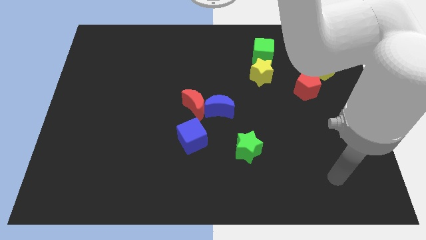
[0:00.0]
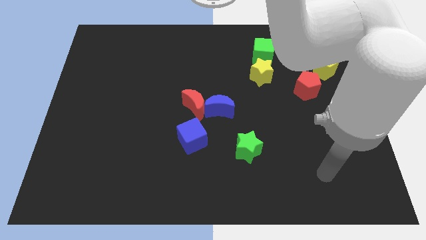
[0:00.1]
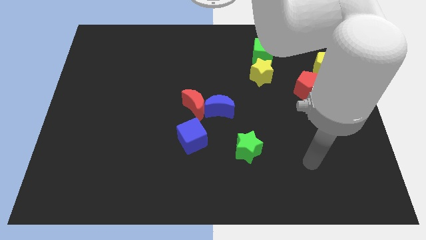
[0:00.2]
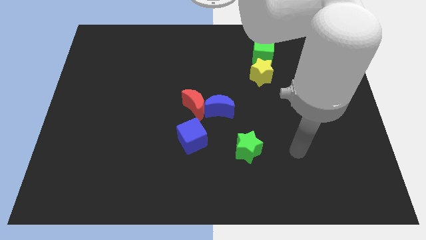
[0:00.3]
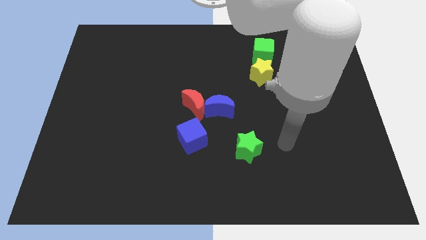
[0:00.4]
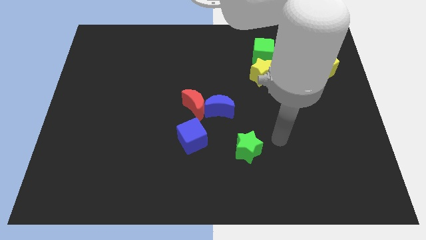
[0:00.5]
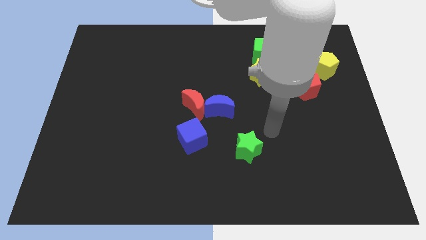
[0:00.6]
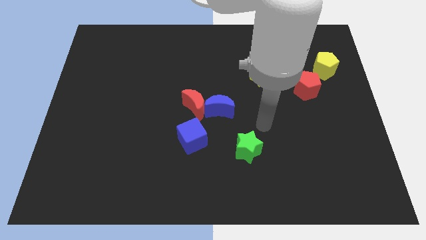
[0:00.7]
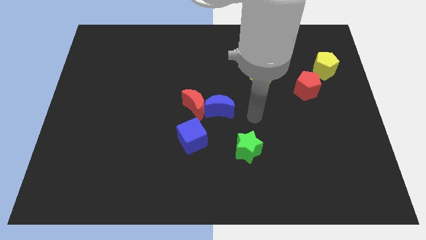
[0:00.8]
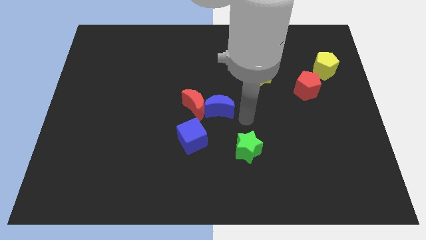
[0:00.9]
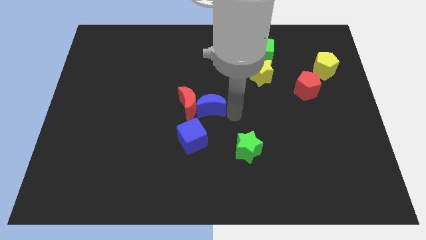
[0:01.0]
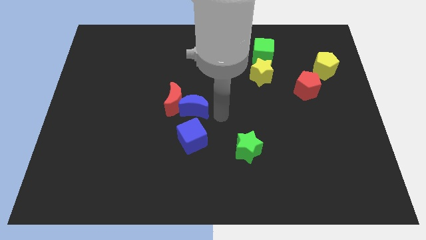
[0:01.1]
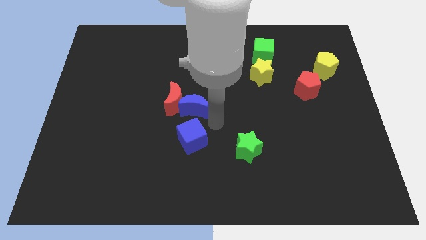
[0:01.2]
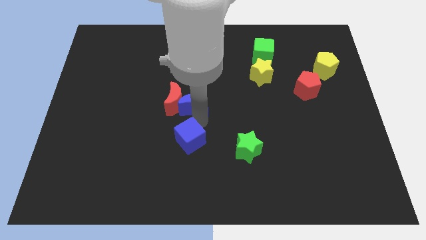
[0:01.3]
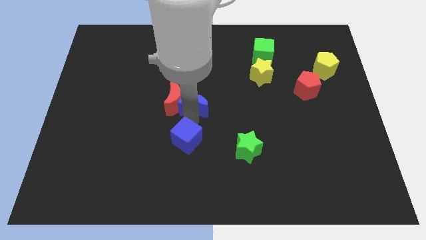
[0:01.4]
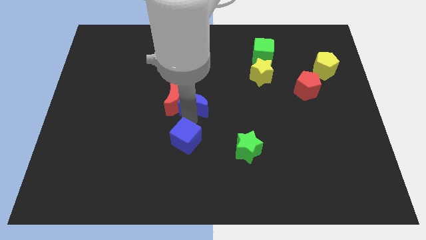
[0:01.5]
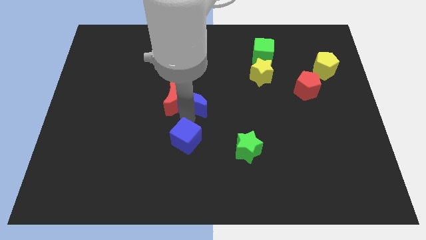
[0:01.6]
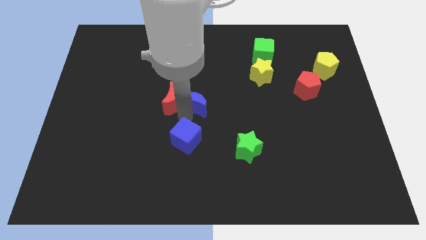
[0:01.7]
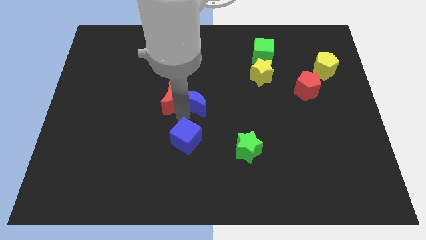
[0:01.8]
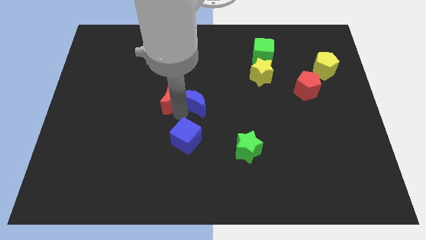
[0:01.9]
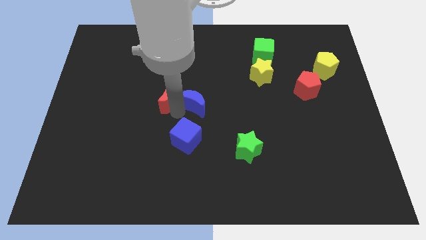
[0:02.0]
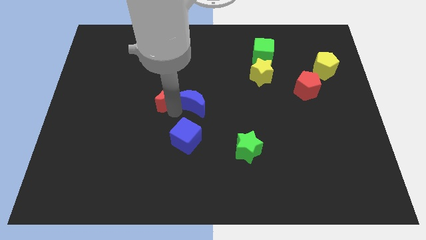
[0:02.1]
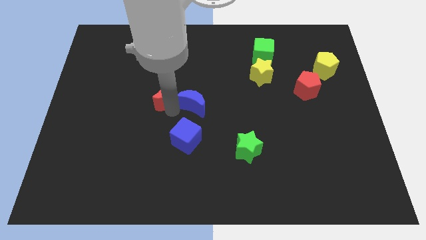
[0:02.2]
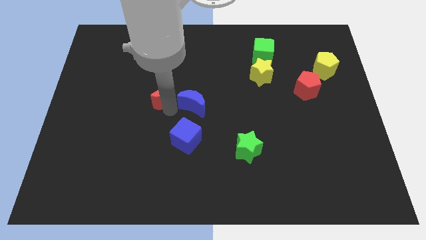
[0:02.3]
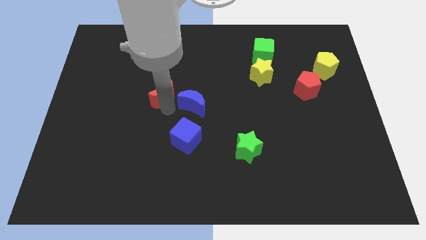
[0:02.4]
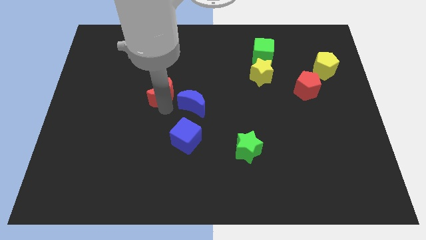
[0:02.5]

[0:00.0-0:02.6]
move the red moon away from the blue moon and blue cube

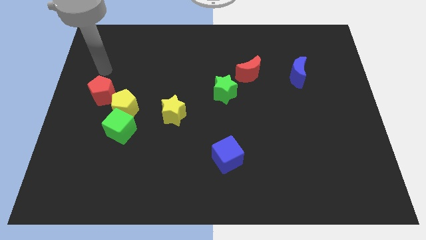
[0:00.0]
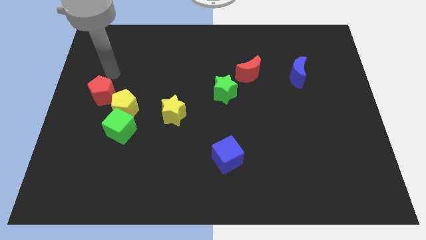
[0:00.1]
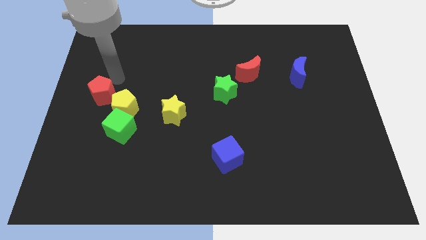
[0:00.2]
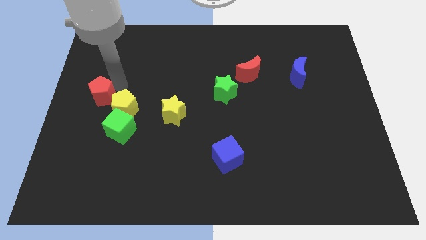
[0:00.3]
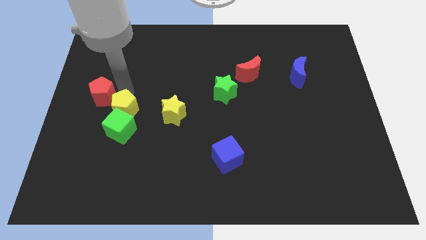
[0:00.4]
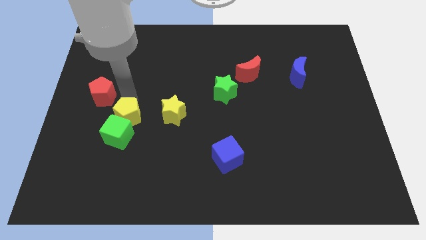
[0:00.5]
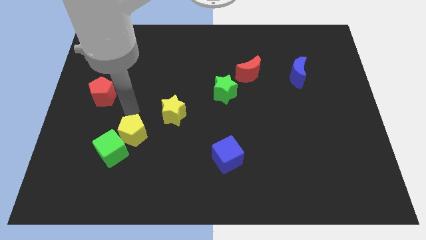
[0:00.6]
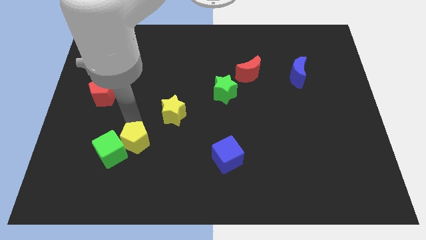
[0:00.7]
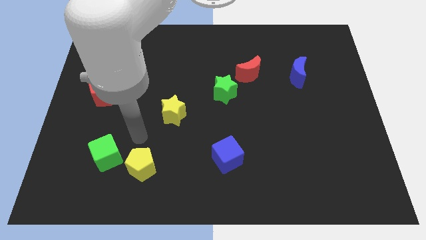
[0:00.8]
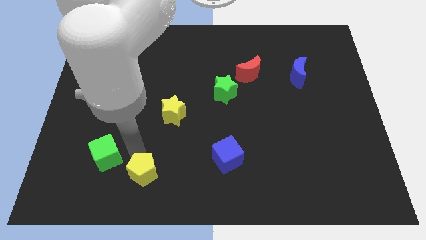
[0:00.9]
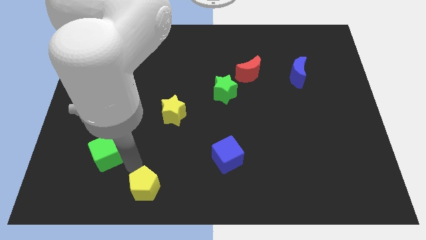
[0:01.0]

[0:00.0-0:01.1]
separate the green cube from the yellow pentagon

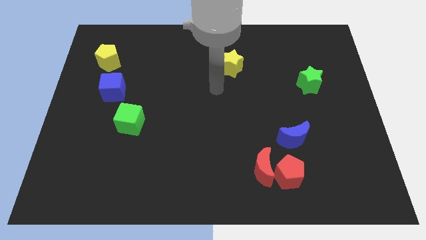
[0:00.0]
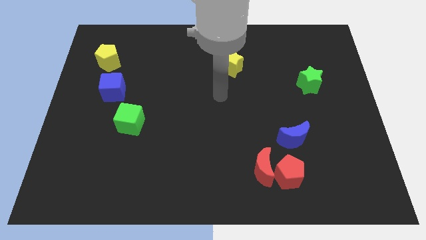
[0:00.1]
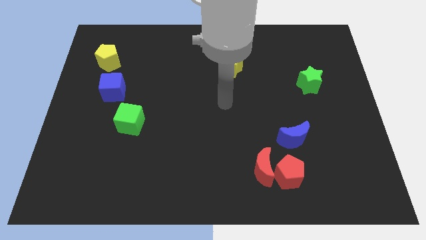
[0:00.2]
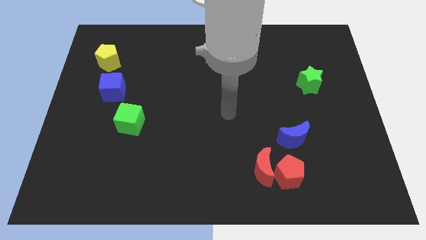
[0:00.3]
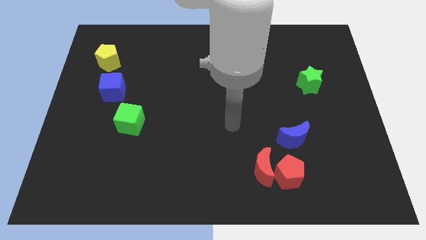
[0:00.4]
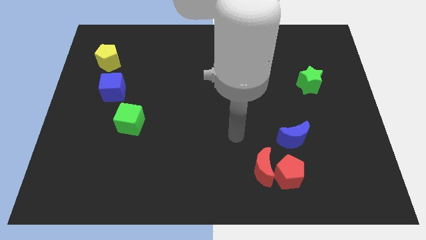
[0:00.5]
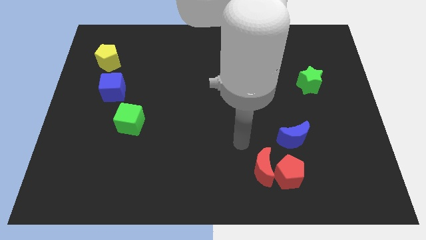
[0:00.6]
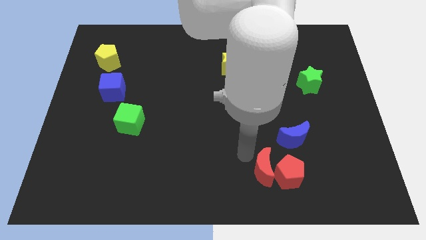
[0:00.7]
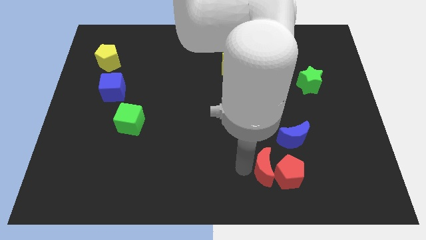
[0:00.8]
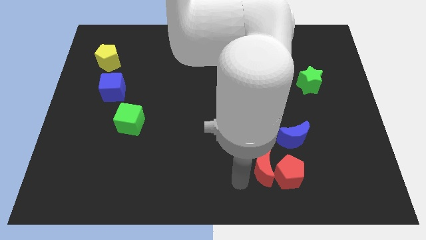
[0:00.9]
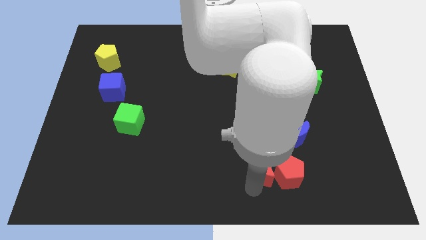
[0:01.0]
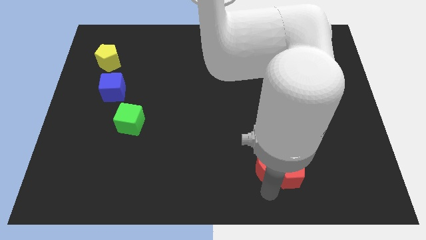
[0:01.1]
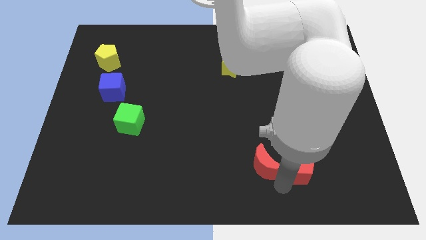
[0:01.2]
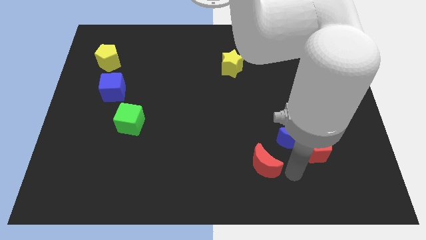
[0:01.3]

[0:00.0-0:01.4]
separate the red moon from the red pentagon

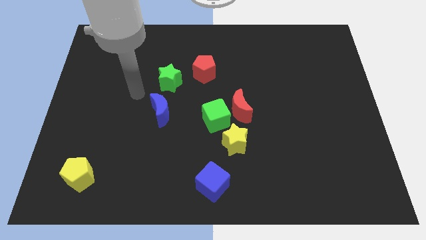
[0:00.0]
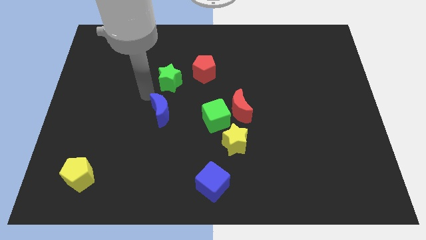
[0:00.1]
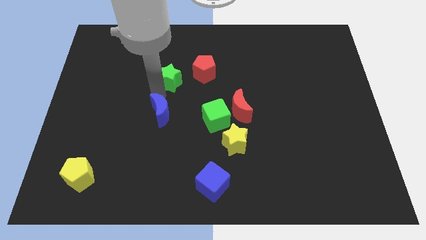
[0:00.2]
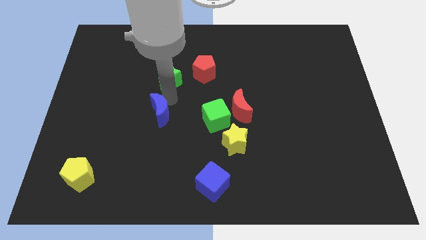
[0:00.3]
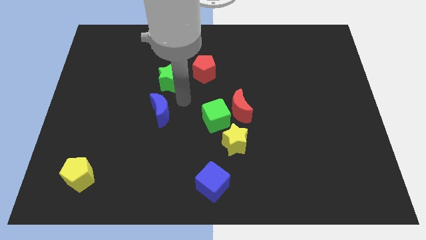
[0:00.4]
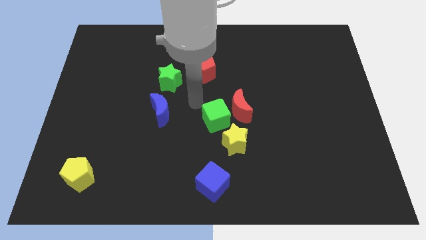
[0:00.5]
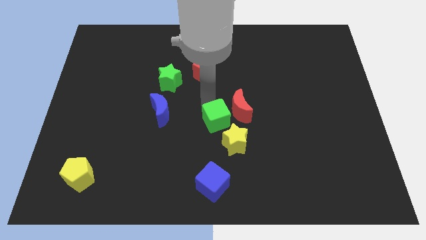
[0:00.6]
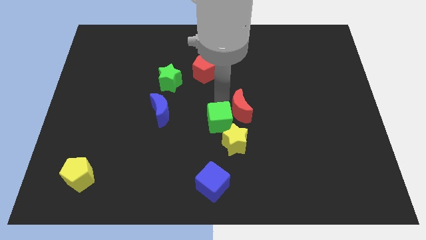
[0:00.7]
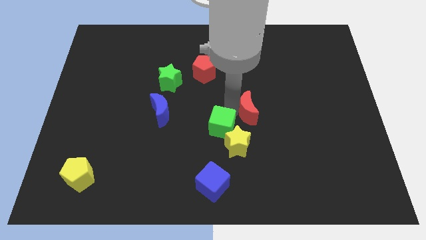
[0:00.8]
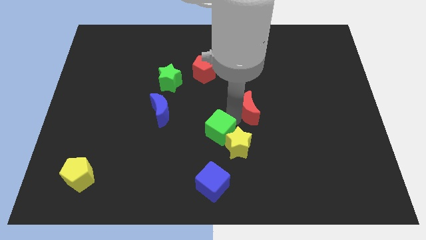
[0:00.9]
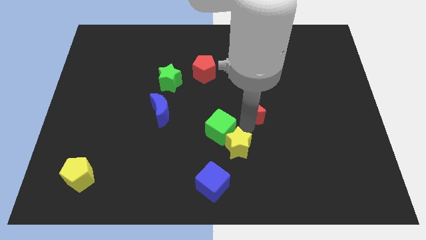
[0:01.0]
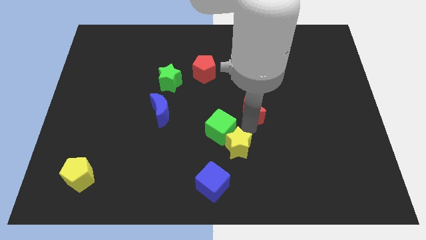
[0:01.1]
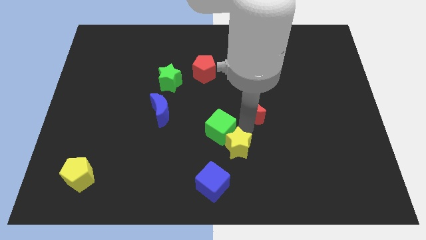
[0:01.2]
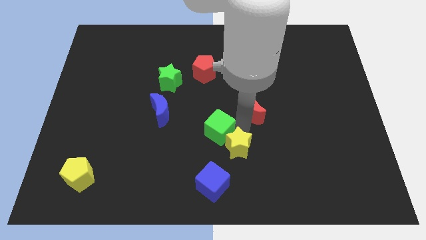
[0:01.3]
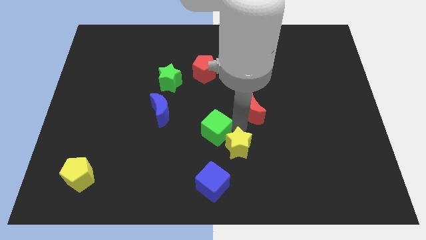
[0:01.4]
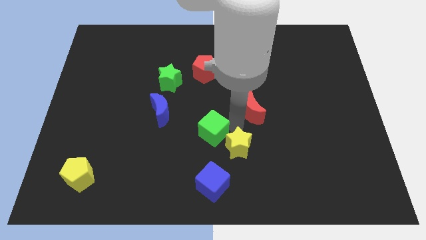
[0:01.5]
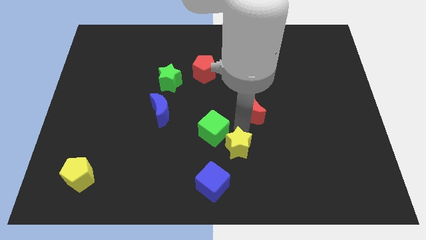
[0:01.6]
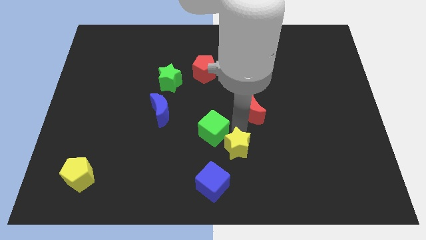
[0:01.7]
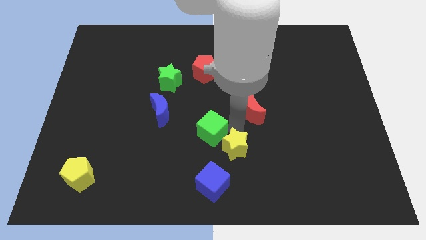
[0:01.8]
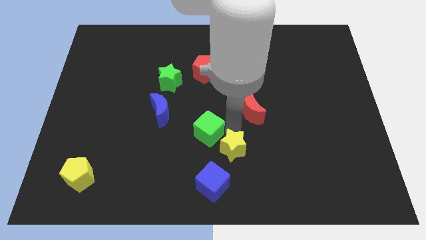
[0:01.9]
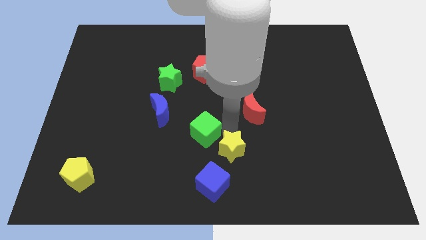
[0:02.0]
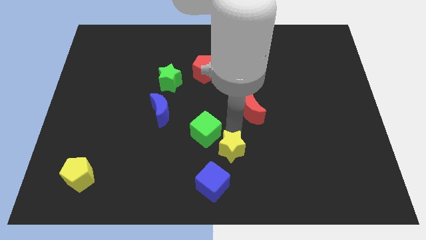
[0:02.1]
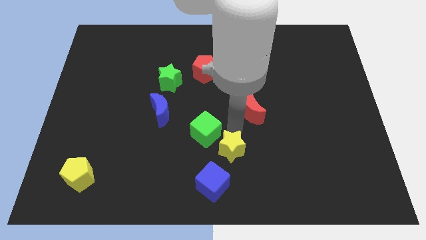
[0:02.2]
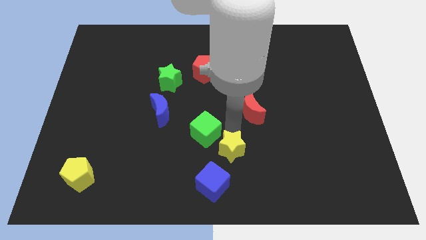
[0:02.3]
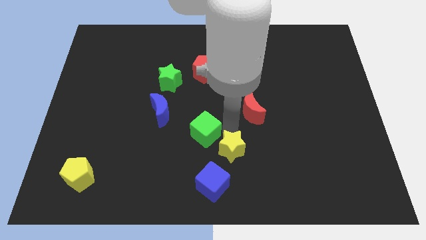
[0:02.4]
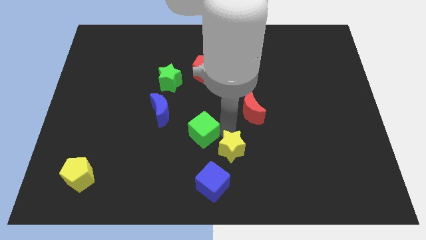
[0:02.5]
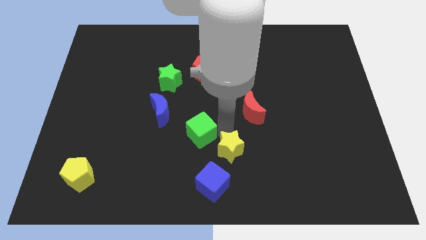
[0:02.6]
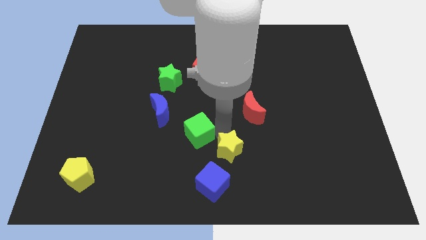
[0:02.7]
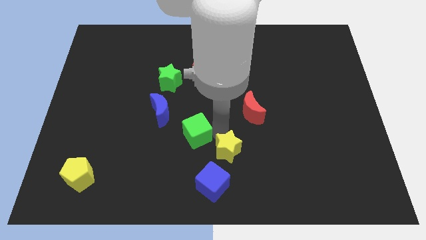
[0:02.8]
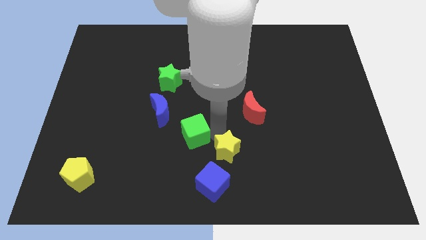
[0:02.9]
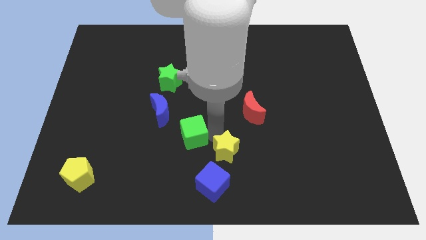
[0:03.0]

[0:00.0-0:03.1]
separate the green cube from the red moon and yellow star

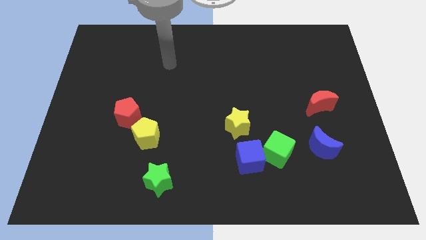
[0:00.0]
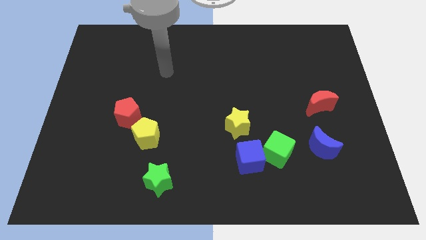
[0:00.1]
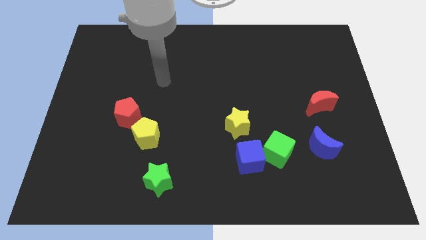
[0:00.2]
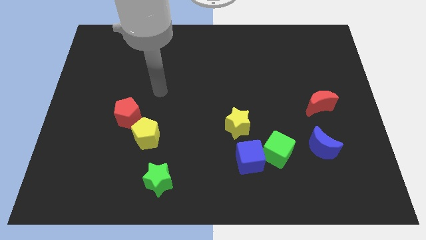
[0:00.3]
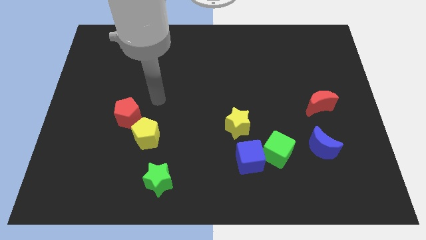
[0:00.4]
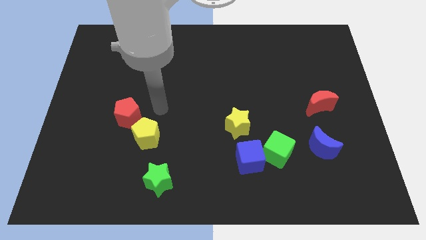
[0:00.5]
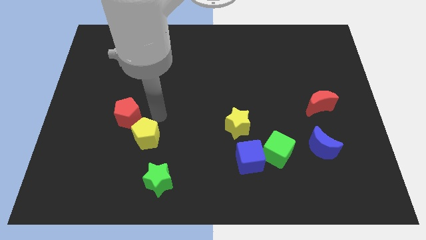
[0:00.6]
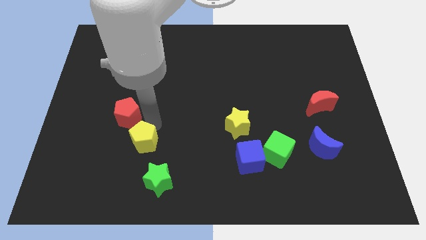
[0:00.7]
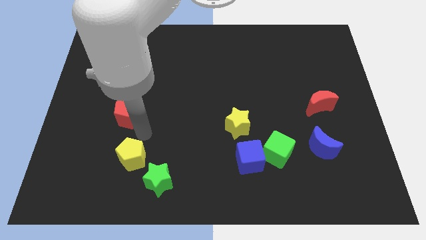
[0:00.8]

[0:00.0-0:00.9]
pull the red pentagon apart from the yellow pentagon

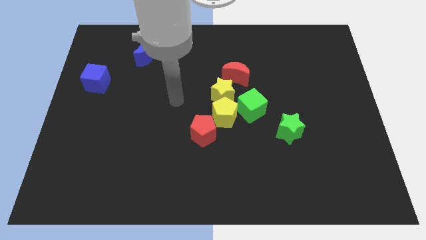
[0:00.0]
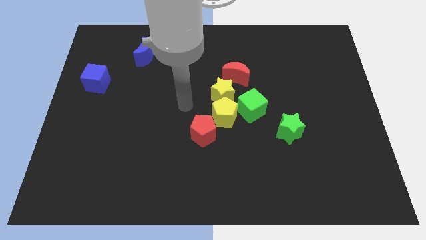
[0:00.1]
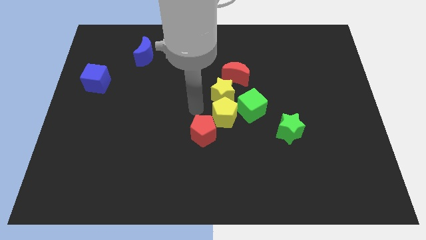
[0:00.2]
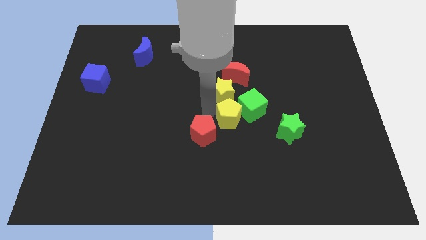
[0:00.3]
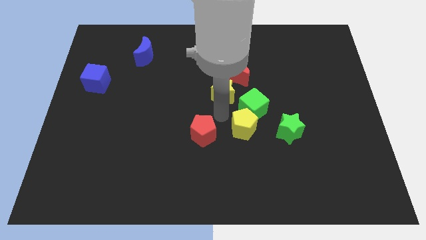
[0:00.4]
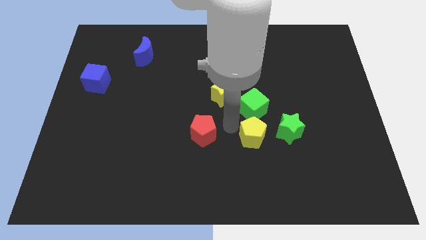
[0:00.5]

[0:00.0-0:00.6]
separate the red pentagon from the yellow pentagon
